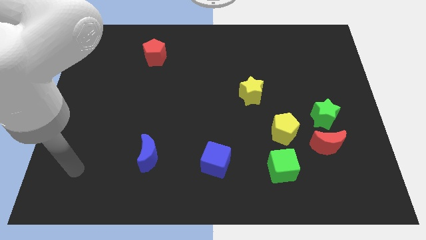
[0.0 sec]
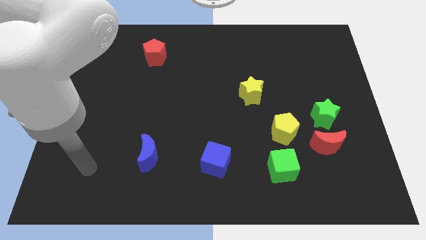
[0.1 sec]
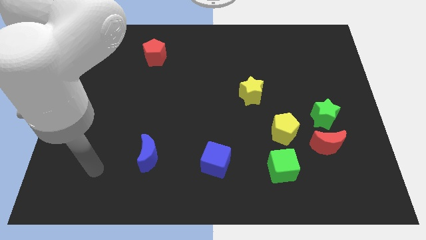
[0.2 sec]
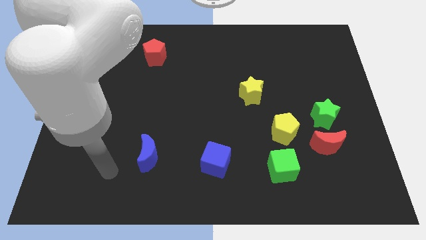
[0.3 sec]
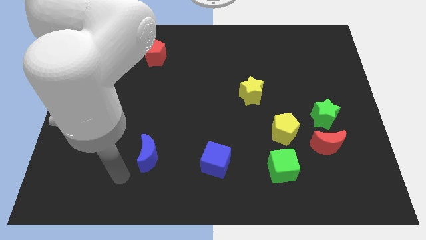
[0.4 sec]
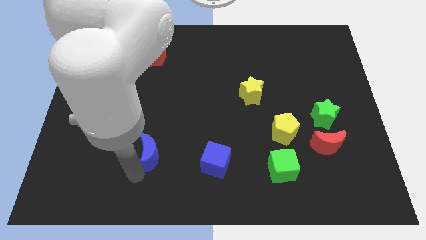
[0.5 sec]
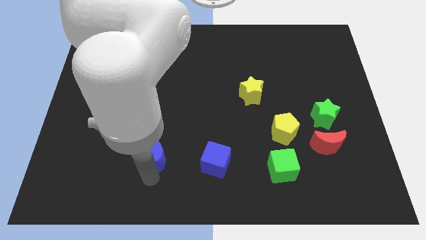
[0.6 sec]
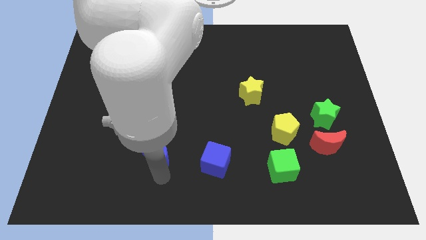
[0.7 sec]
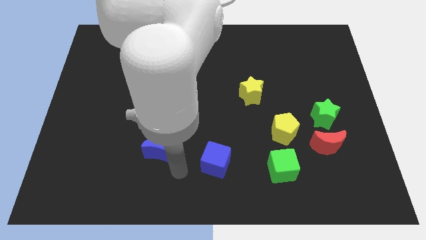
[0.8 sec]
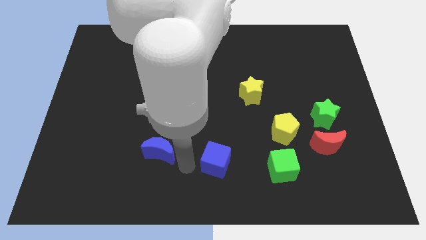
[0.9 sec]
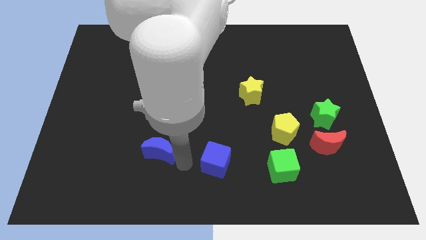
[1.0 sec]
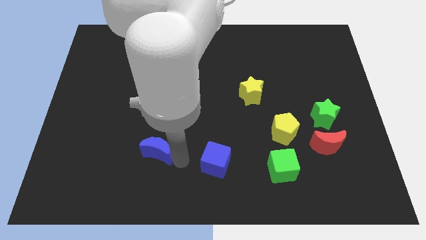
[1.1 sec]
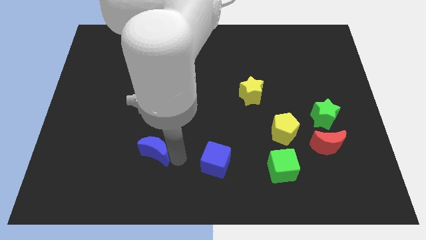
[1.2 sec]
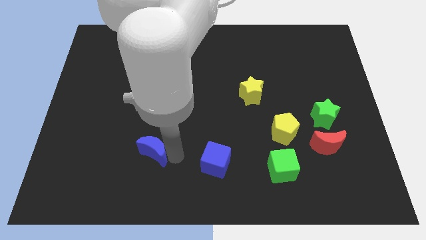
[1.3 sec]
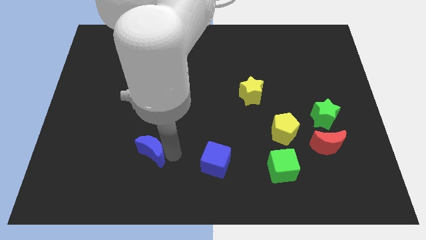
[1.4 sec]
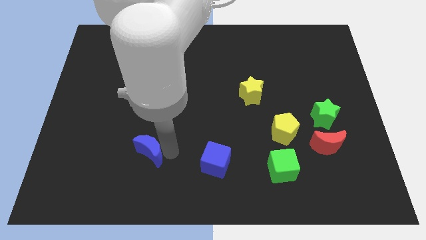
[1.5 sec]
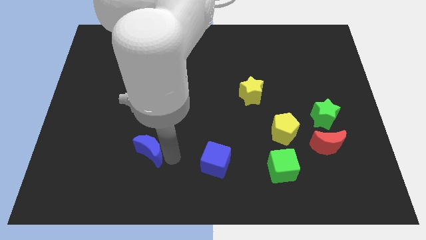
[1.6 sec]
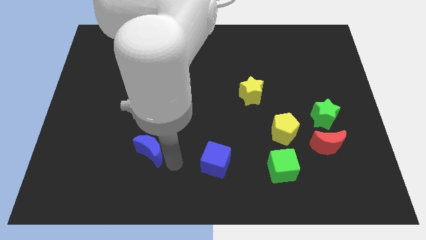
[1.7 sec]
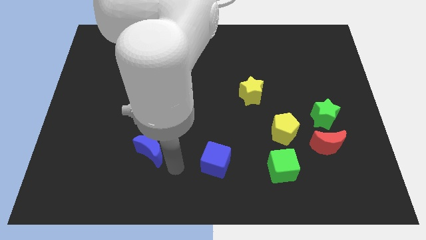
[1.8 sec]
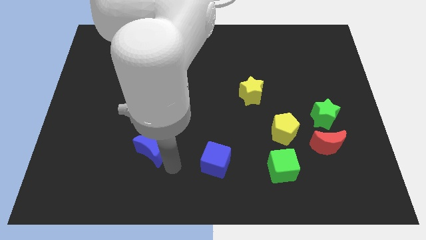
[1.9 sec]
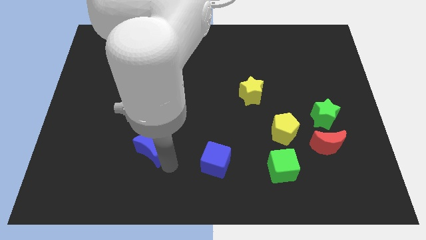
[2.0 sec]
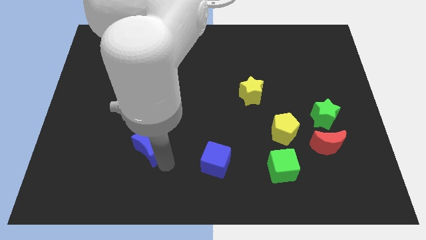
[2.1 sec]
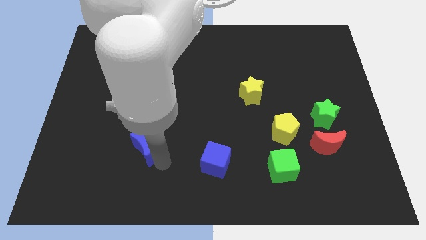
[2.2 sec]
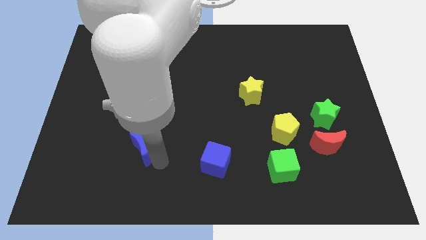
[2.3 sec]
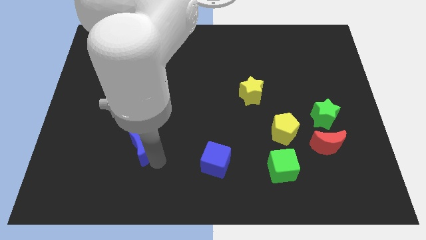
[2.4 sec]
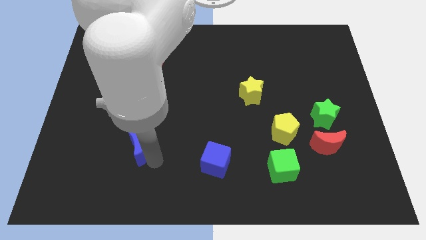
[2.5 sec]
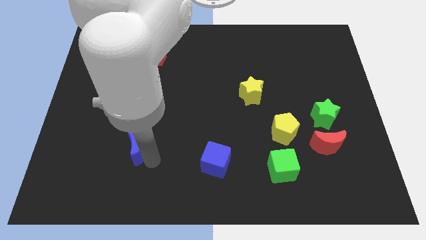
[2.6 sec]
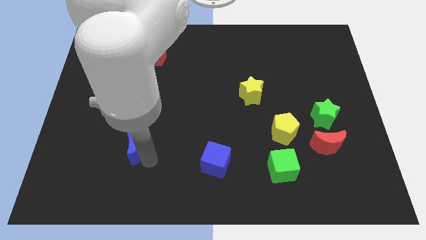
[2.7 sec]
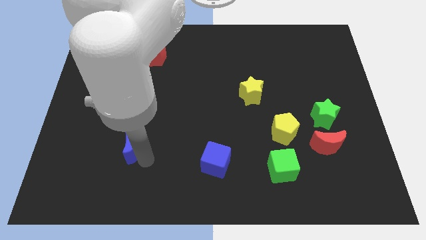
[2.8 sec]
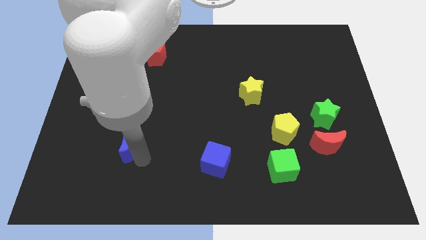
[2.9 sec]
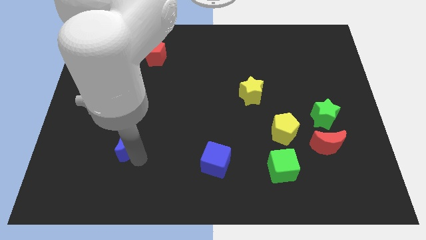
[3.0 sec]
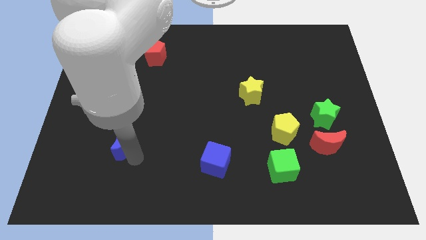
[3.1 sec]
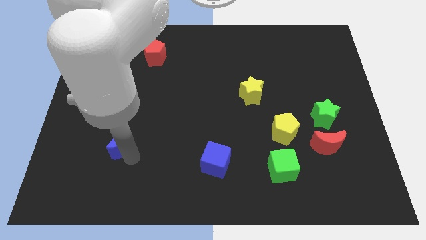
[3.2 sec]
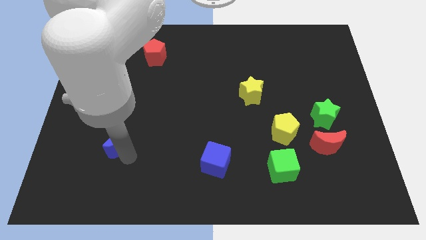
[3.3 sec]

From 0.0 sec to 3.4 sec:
push the blue moon a little bit upwards and left diagonally

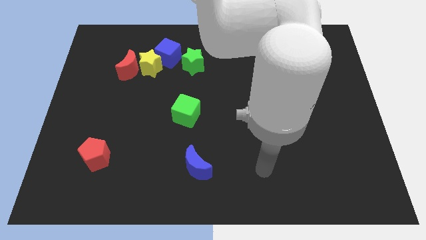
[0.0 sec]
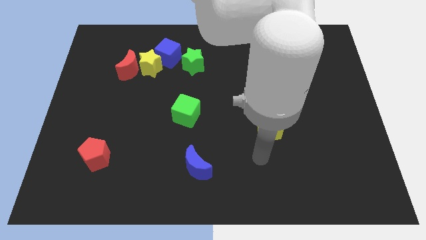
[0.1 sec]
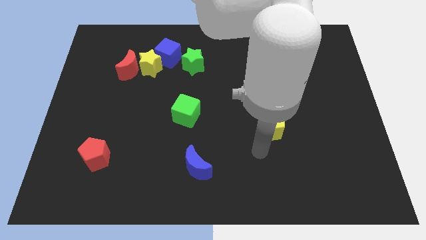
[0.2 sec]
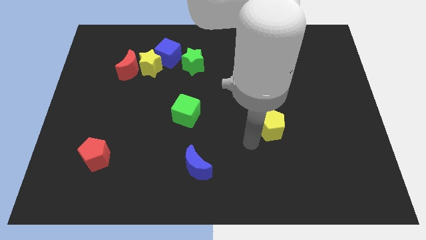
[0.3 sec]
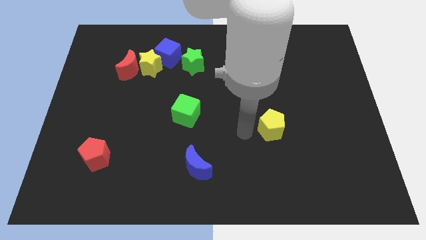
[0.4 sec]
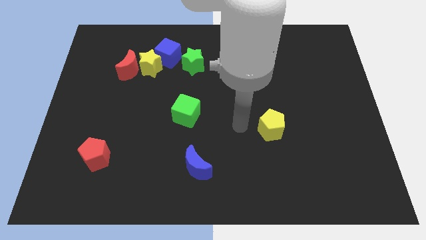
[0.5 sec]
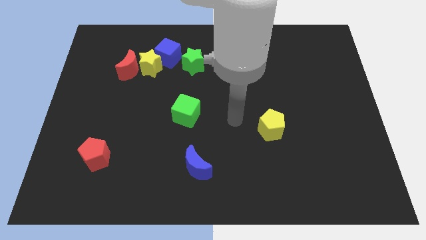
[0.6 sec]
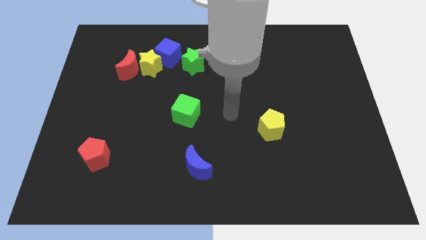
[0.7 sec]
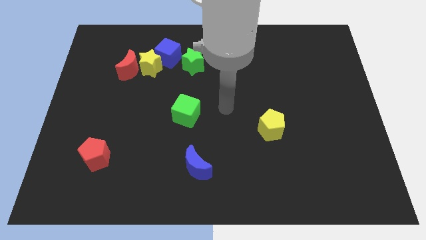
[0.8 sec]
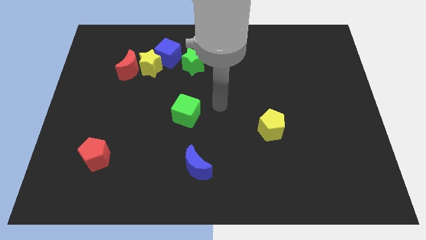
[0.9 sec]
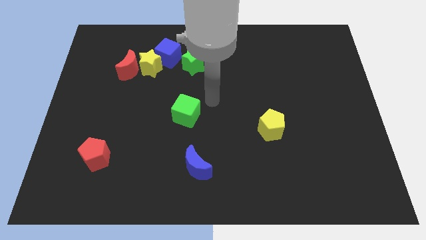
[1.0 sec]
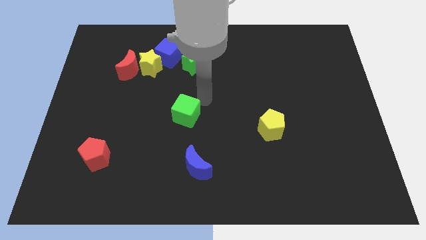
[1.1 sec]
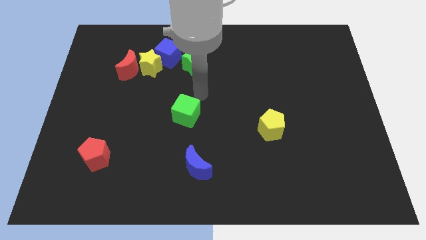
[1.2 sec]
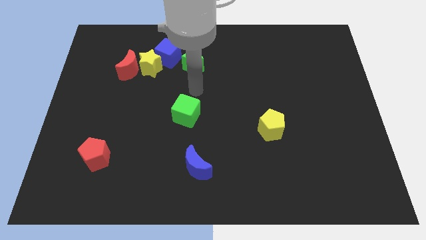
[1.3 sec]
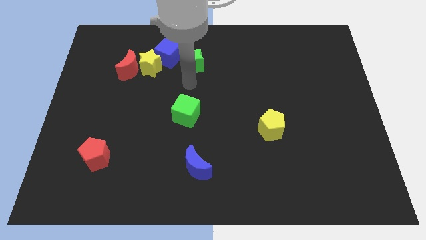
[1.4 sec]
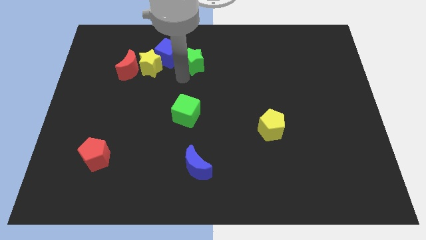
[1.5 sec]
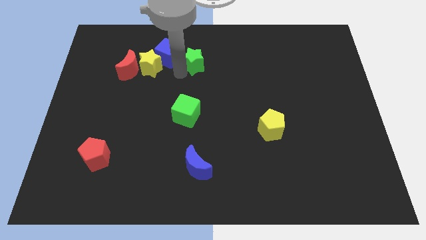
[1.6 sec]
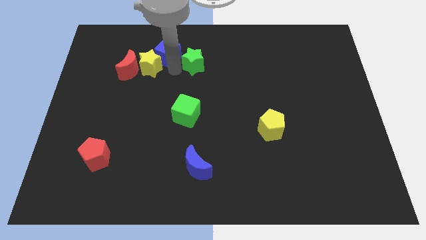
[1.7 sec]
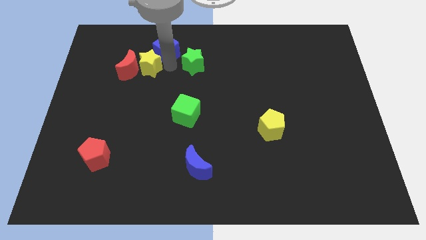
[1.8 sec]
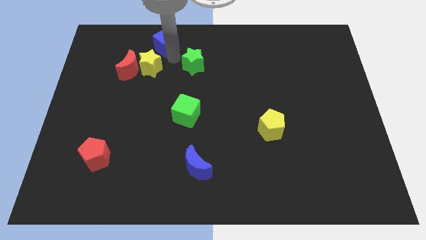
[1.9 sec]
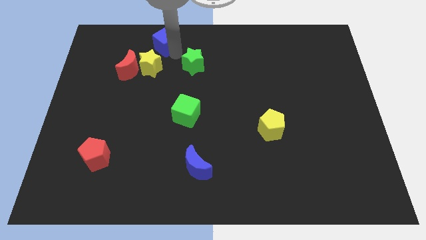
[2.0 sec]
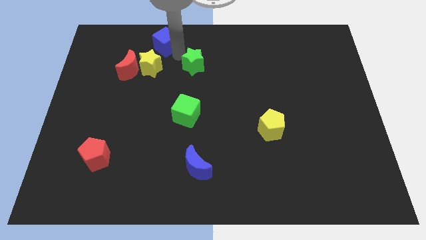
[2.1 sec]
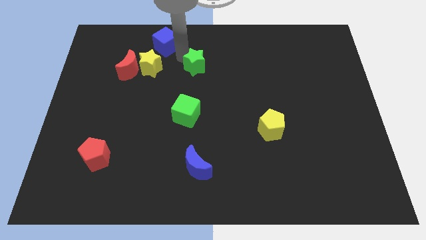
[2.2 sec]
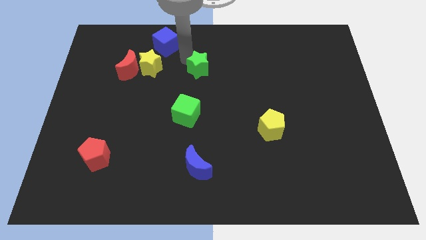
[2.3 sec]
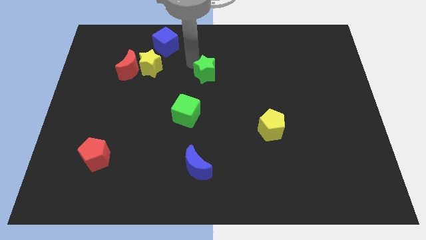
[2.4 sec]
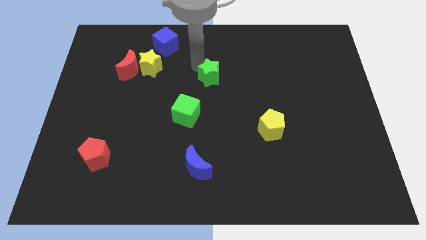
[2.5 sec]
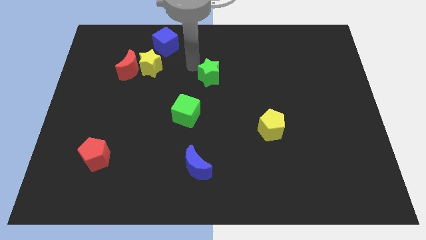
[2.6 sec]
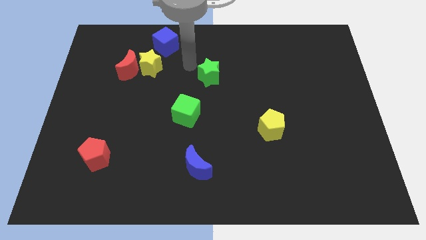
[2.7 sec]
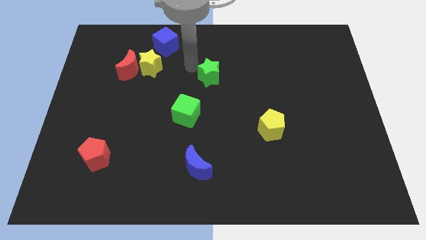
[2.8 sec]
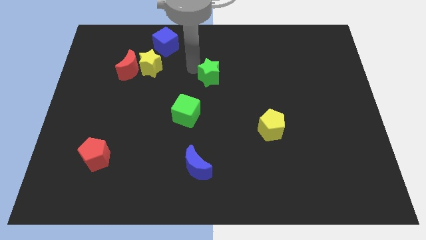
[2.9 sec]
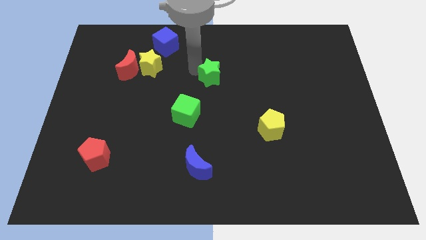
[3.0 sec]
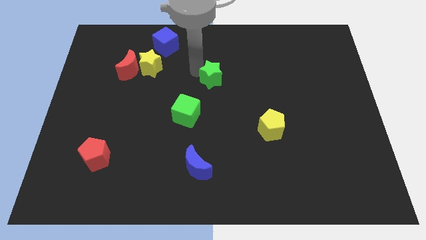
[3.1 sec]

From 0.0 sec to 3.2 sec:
move the green star downwards and right diagonally a little bit

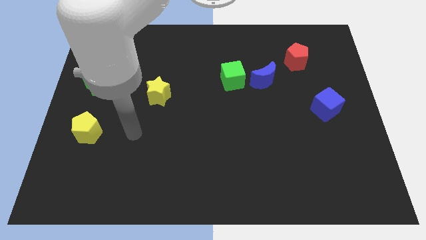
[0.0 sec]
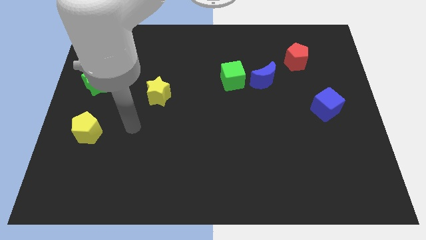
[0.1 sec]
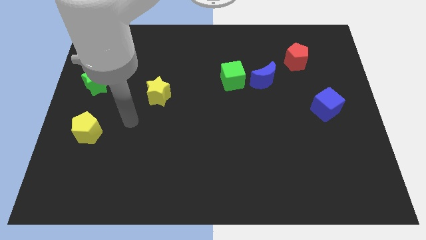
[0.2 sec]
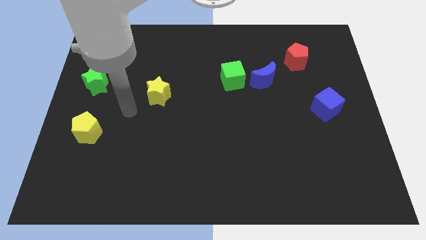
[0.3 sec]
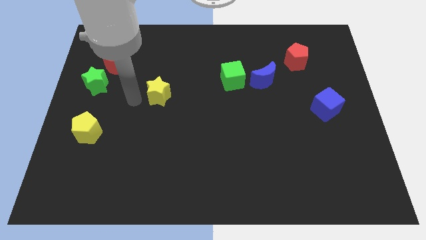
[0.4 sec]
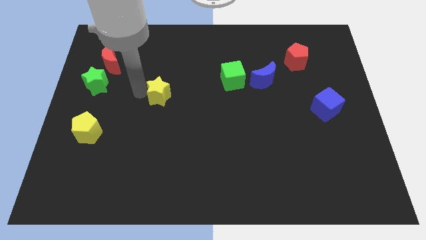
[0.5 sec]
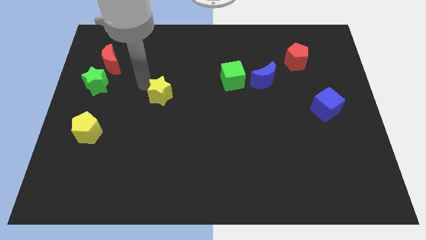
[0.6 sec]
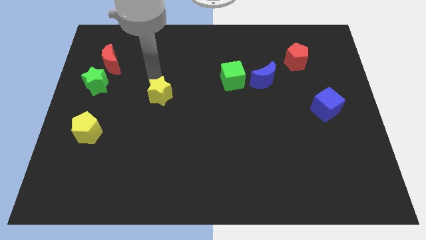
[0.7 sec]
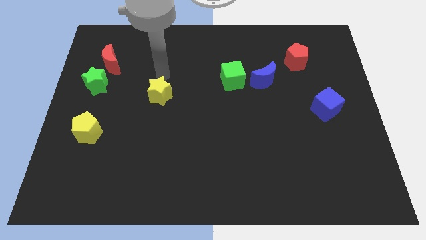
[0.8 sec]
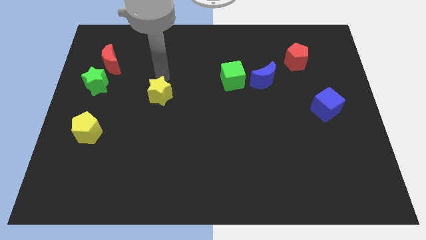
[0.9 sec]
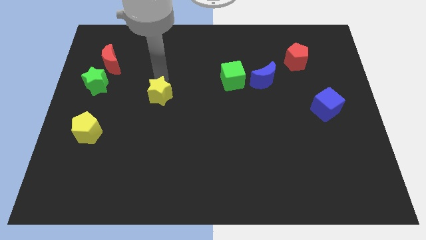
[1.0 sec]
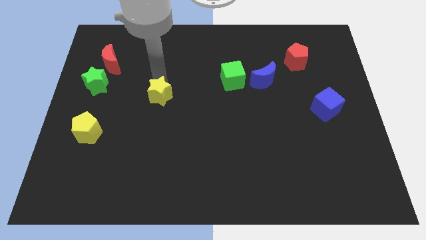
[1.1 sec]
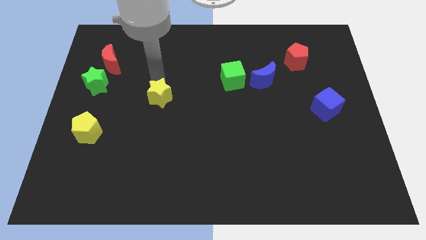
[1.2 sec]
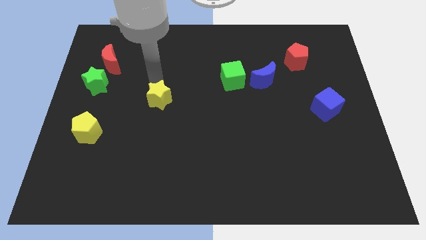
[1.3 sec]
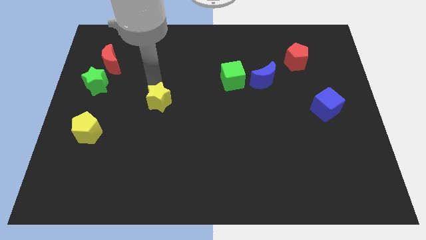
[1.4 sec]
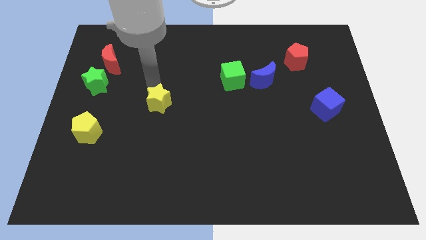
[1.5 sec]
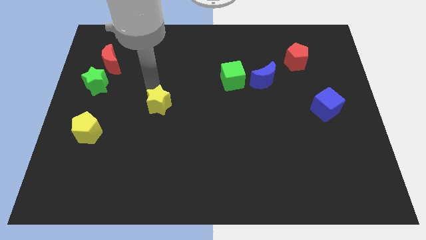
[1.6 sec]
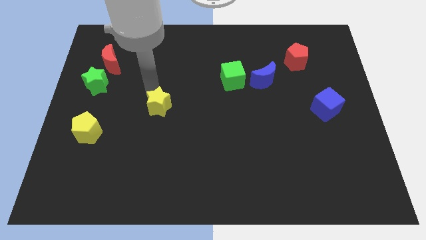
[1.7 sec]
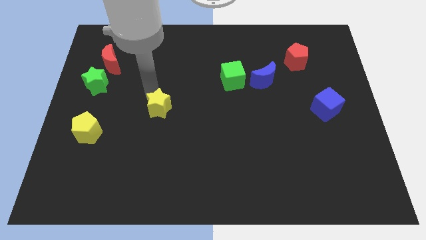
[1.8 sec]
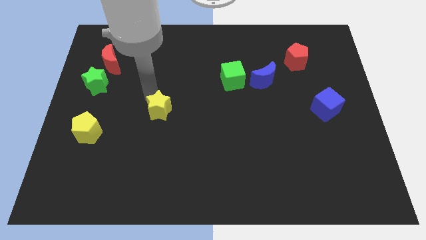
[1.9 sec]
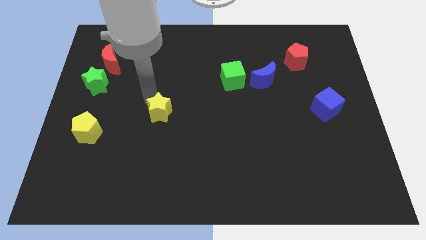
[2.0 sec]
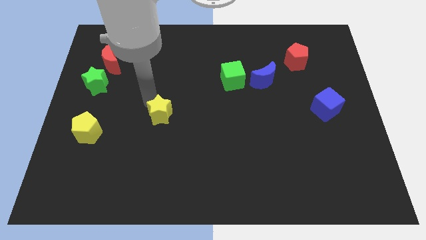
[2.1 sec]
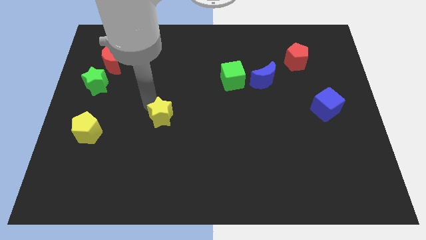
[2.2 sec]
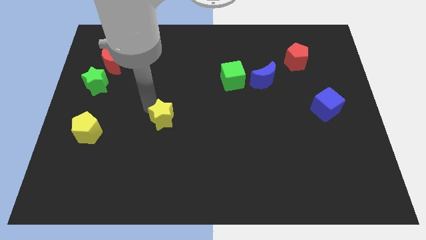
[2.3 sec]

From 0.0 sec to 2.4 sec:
slide the yellow star downwards a bit
